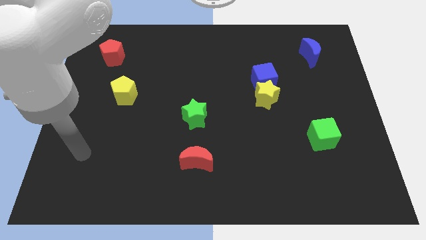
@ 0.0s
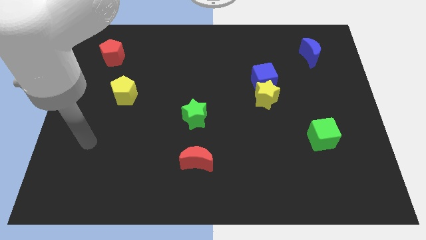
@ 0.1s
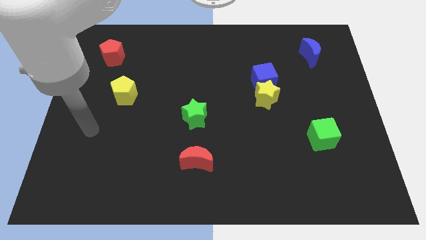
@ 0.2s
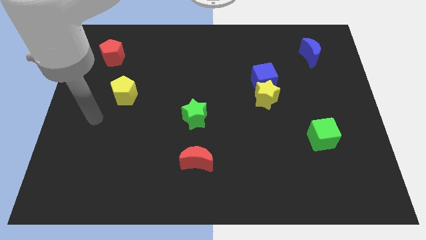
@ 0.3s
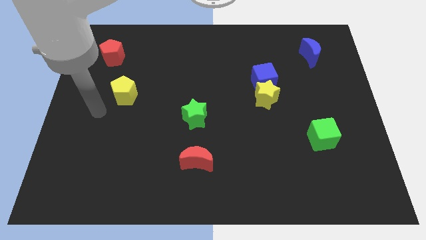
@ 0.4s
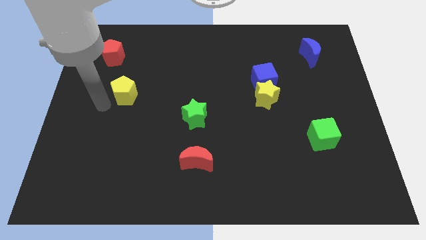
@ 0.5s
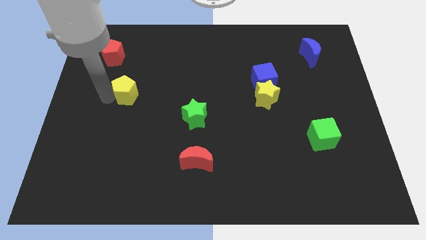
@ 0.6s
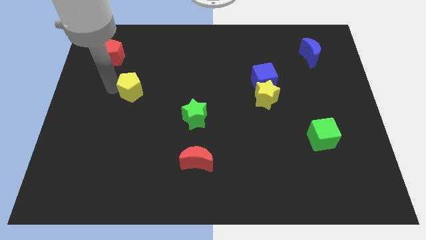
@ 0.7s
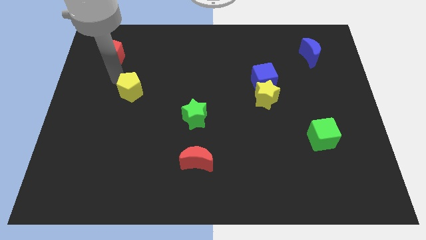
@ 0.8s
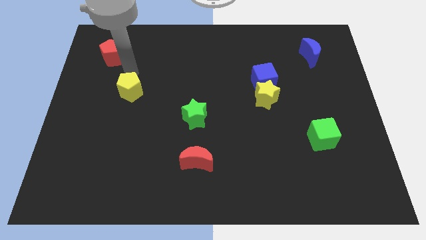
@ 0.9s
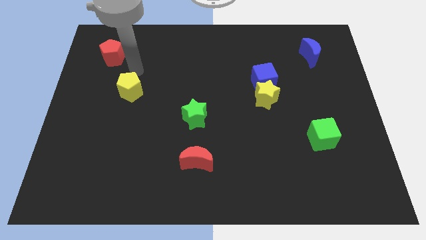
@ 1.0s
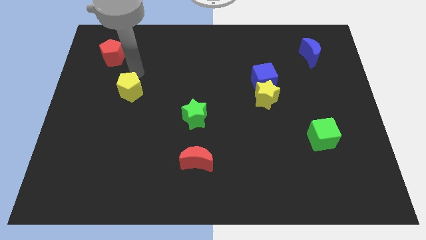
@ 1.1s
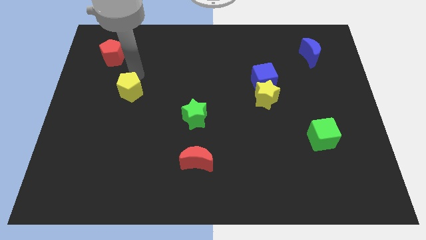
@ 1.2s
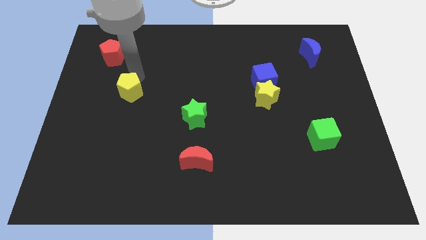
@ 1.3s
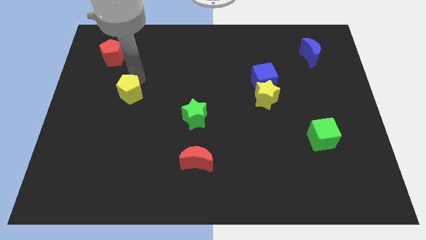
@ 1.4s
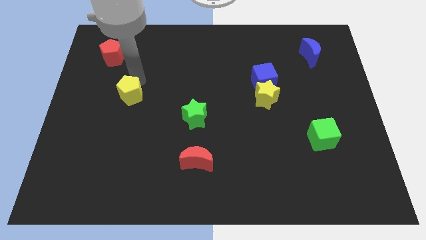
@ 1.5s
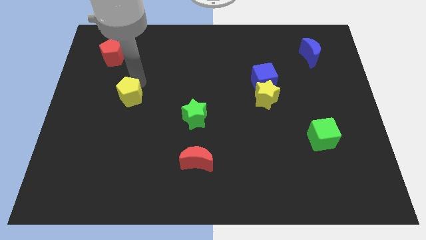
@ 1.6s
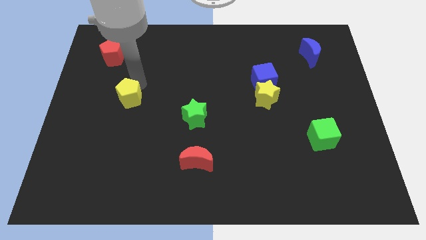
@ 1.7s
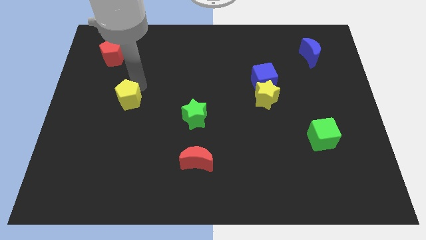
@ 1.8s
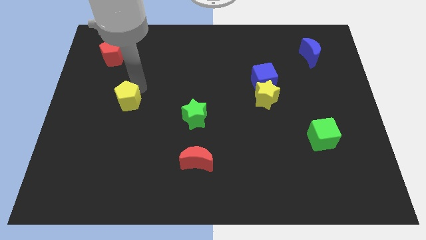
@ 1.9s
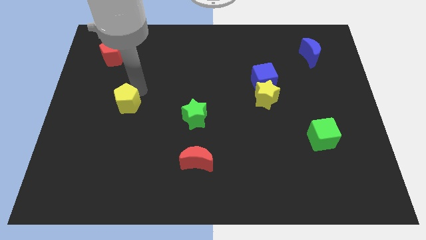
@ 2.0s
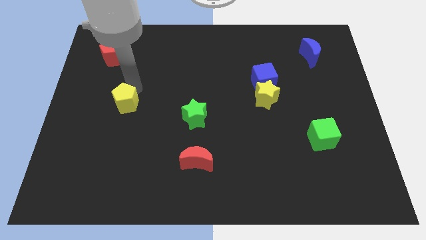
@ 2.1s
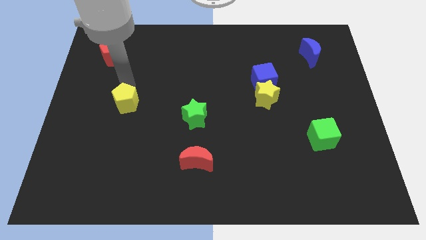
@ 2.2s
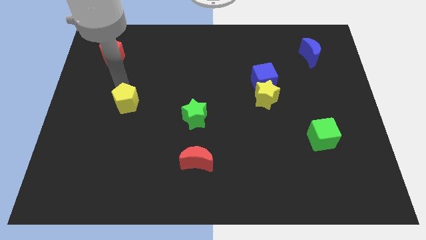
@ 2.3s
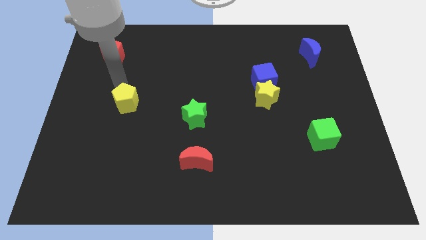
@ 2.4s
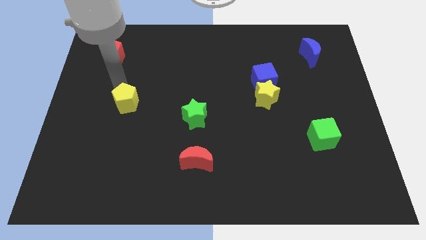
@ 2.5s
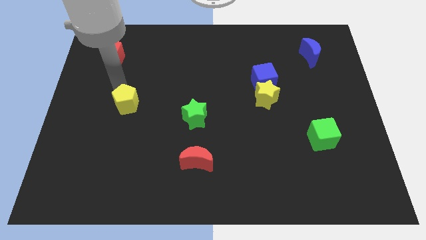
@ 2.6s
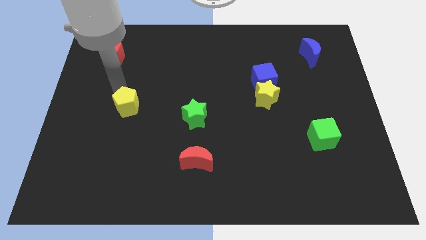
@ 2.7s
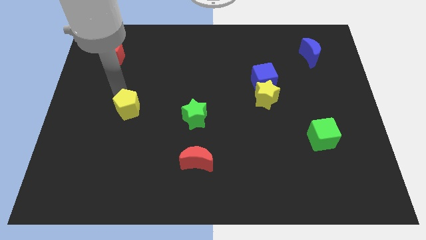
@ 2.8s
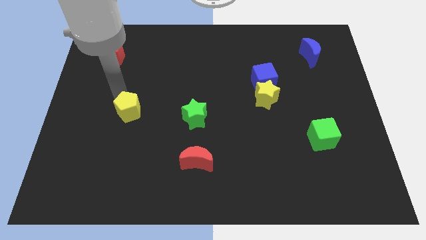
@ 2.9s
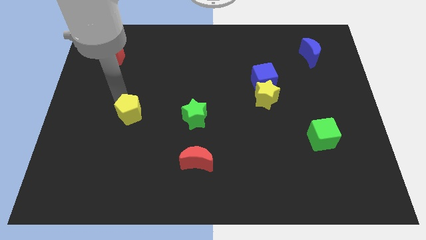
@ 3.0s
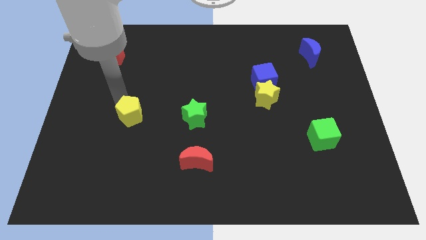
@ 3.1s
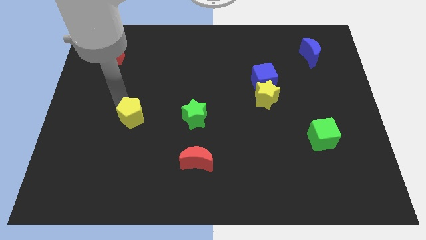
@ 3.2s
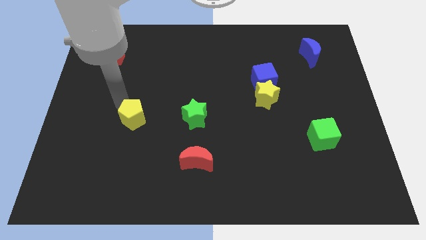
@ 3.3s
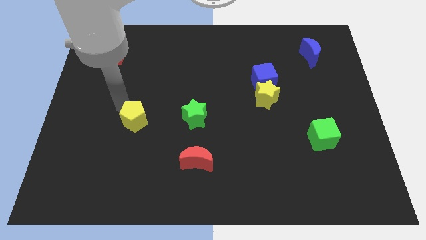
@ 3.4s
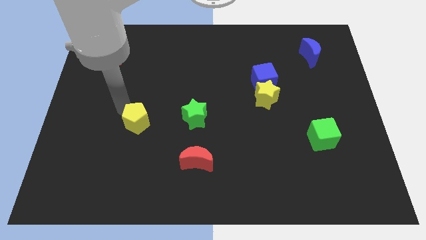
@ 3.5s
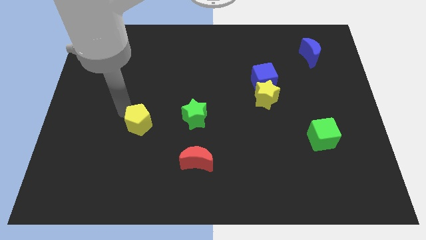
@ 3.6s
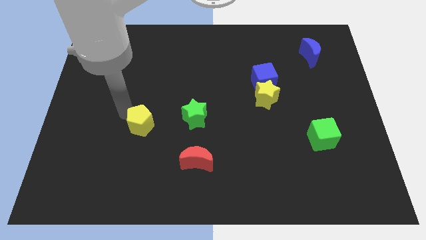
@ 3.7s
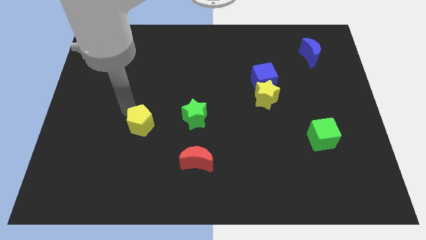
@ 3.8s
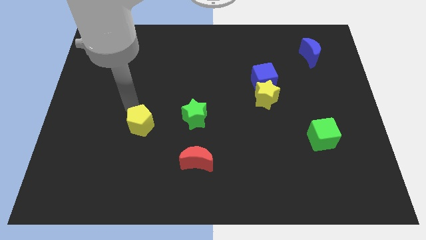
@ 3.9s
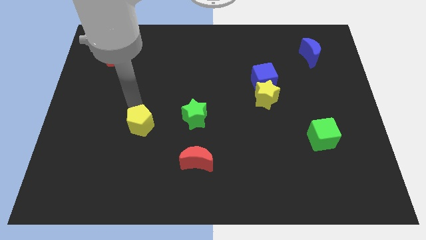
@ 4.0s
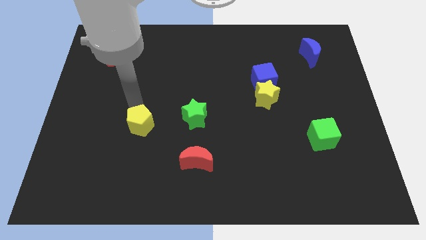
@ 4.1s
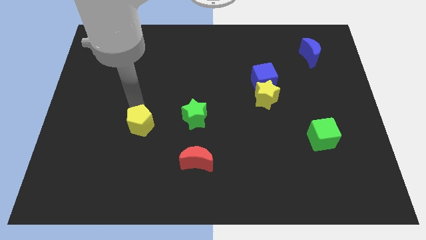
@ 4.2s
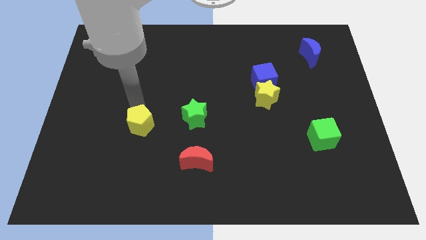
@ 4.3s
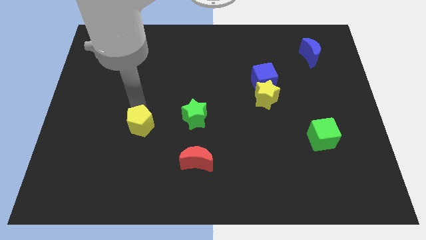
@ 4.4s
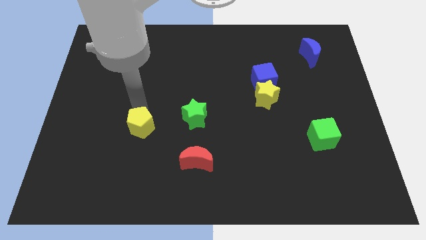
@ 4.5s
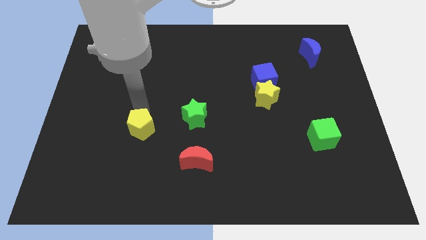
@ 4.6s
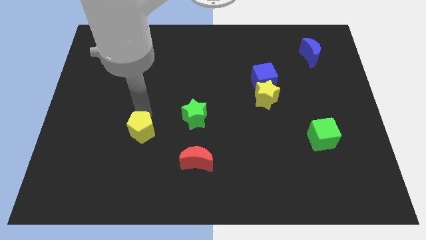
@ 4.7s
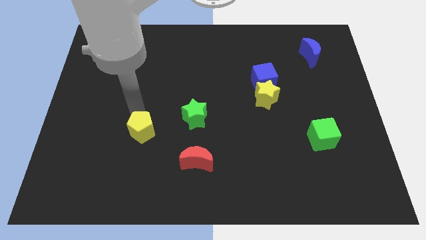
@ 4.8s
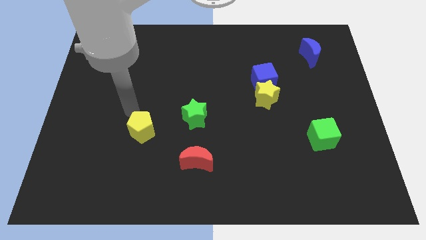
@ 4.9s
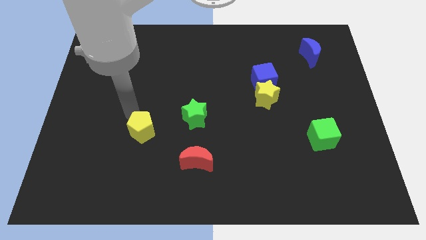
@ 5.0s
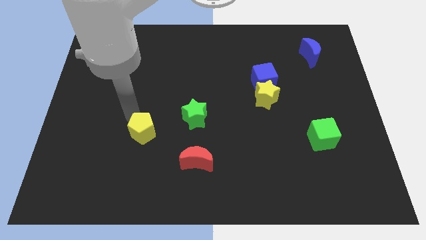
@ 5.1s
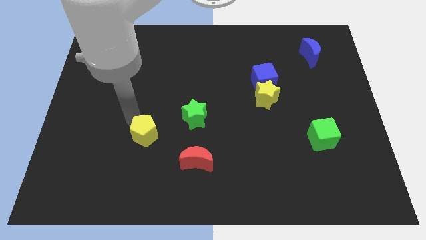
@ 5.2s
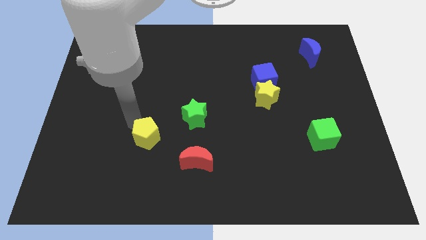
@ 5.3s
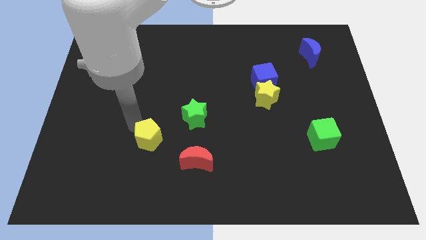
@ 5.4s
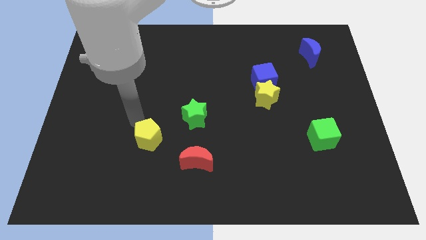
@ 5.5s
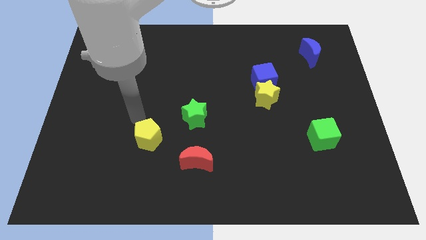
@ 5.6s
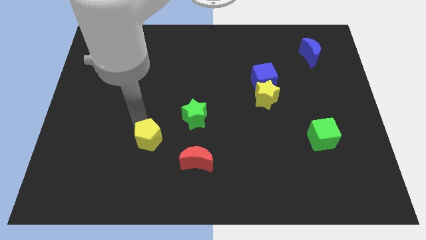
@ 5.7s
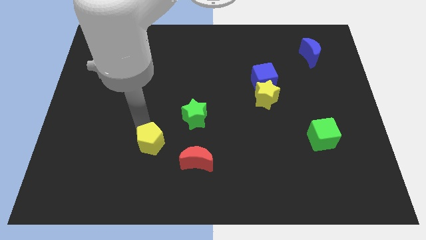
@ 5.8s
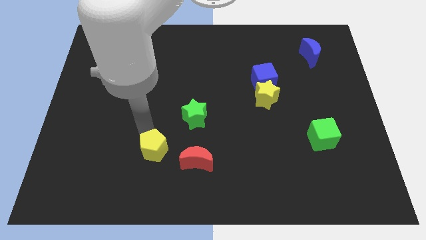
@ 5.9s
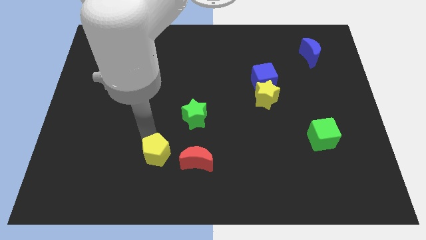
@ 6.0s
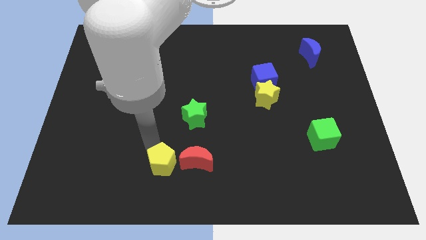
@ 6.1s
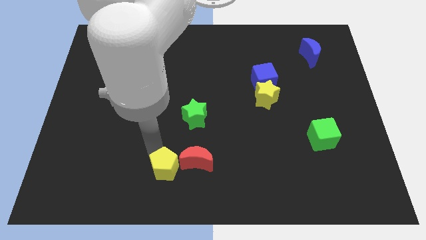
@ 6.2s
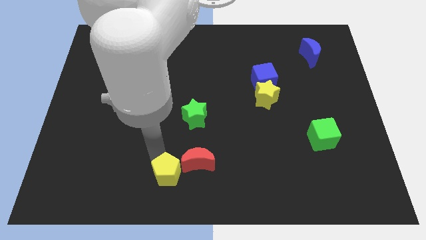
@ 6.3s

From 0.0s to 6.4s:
push the yellow pentagon to the bottom
